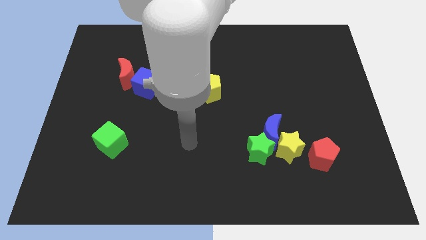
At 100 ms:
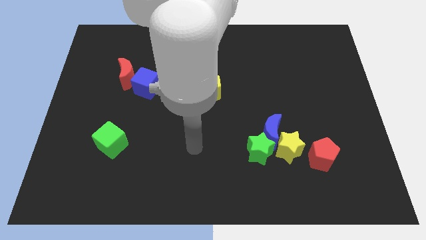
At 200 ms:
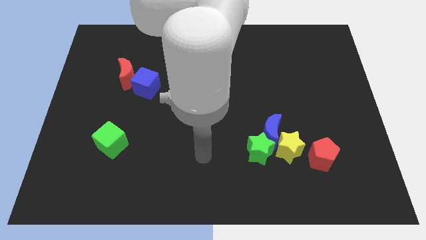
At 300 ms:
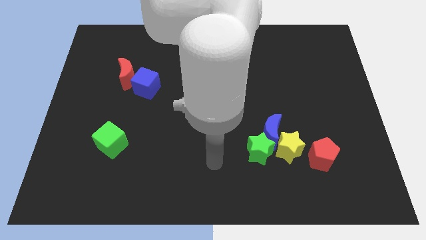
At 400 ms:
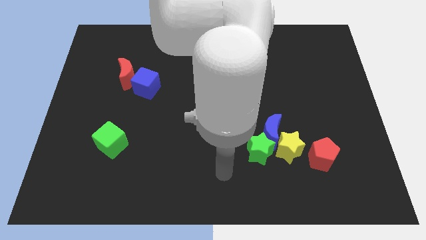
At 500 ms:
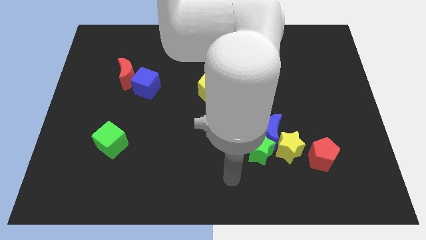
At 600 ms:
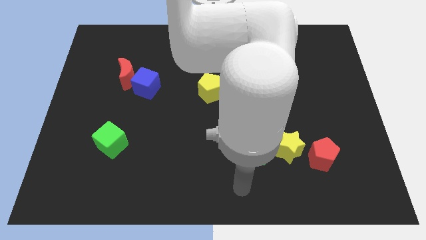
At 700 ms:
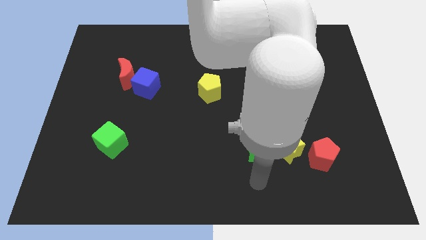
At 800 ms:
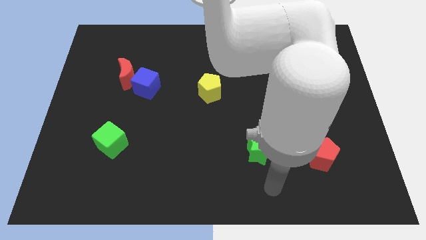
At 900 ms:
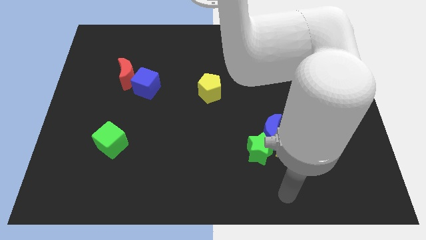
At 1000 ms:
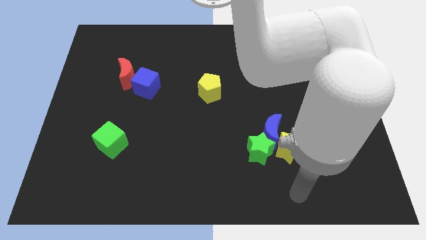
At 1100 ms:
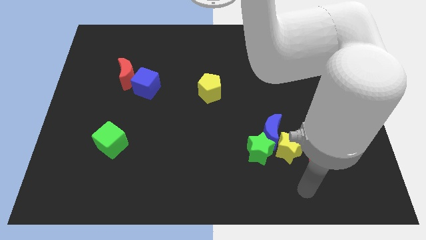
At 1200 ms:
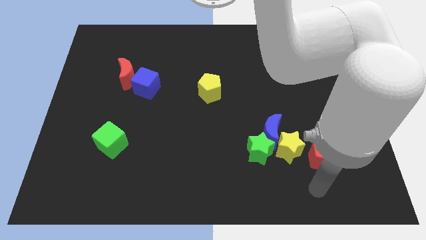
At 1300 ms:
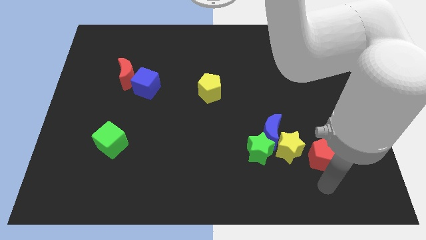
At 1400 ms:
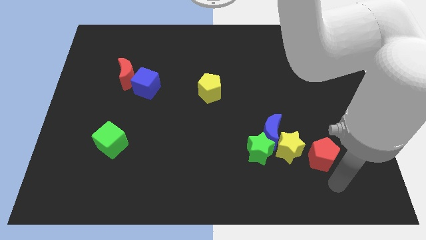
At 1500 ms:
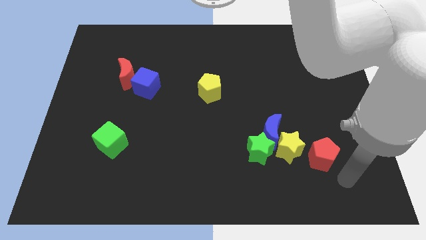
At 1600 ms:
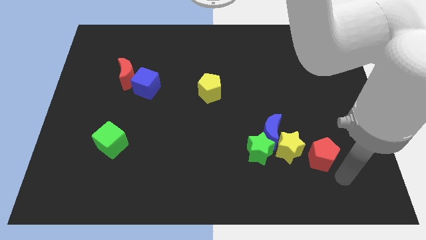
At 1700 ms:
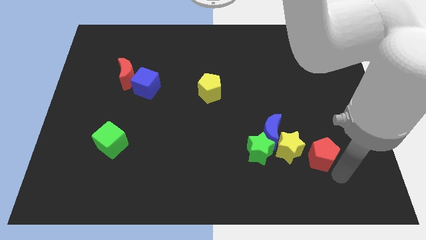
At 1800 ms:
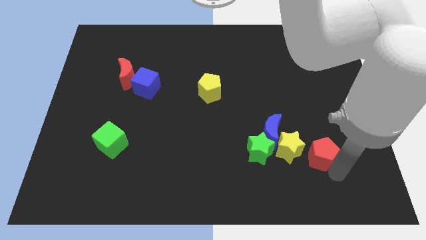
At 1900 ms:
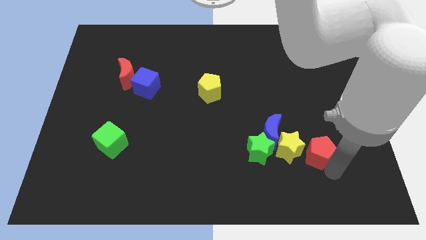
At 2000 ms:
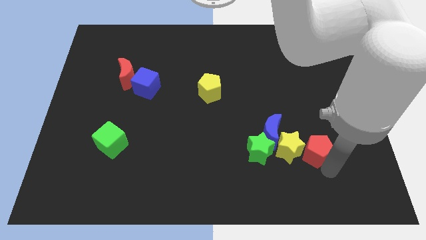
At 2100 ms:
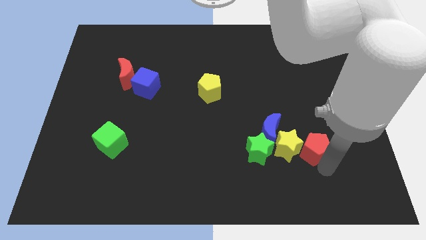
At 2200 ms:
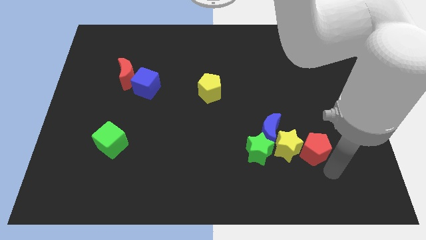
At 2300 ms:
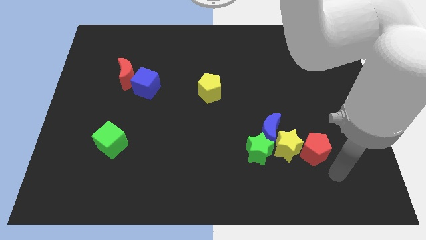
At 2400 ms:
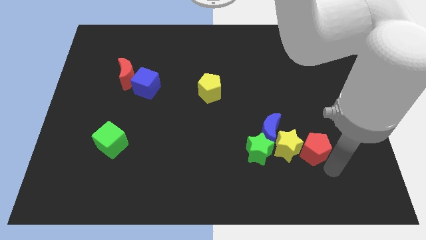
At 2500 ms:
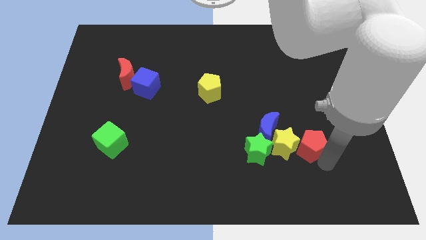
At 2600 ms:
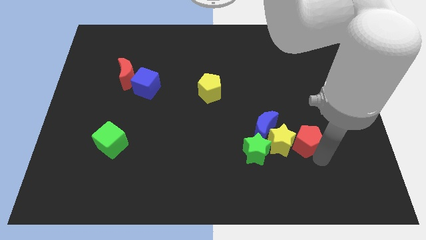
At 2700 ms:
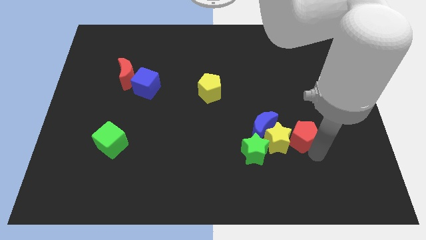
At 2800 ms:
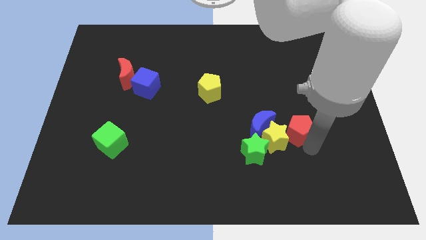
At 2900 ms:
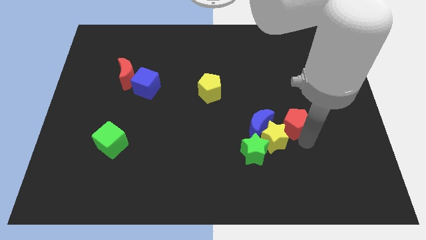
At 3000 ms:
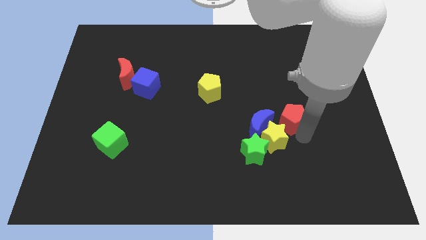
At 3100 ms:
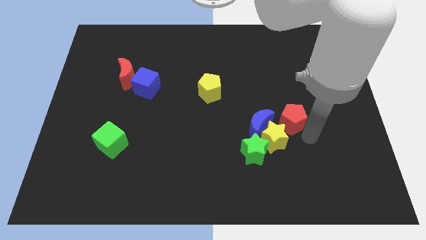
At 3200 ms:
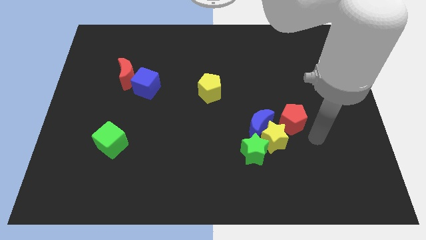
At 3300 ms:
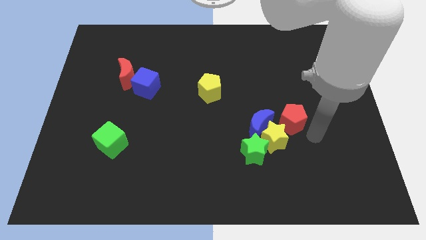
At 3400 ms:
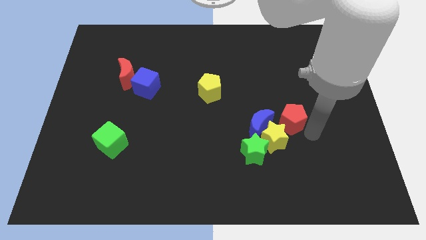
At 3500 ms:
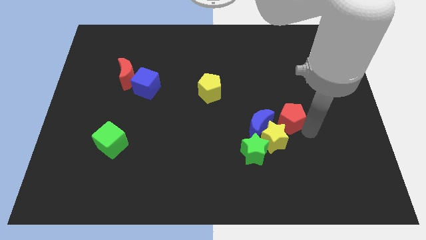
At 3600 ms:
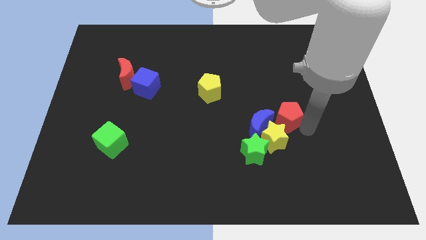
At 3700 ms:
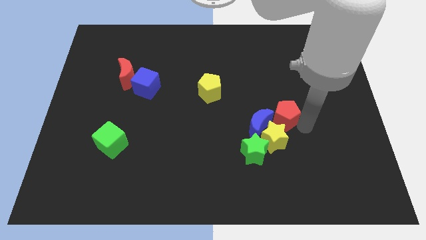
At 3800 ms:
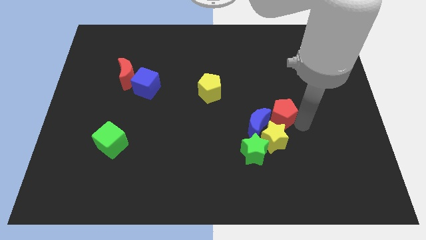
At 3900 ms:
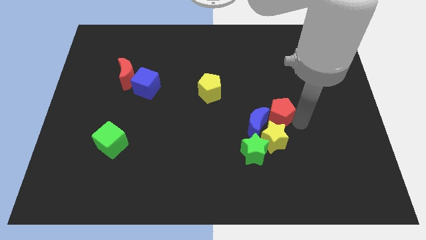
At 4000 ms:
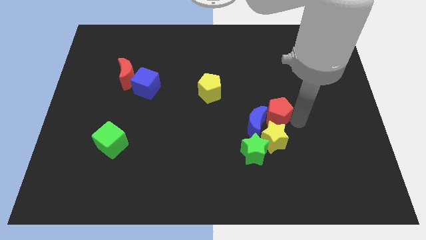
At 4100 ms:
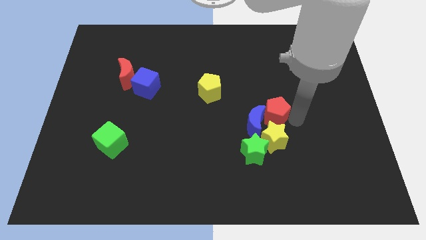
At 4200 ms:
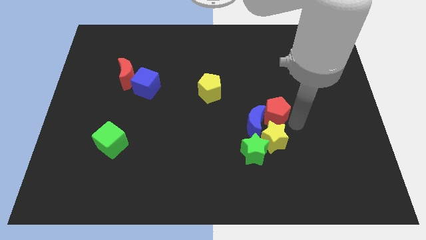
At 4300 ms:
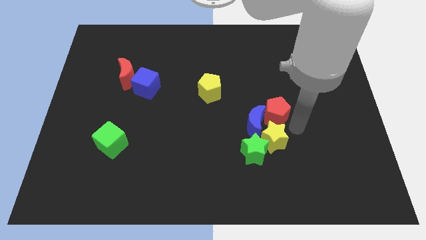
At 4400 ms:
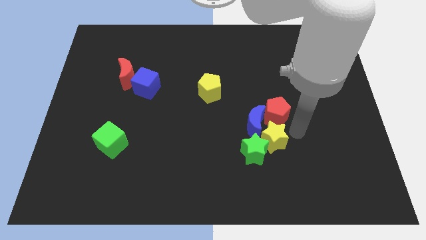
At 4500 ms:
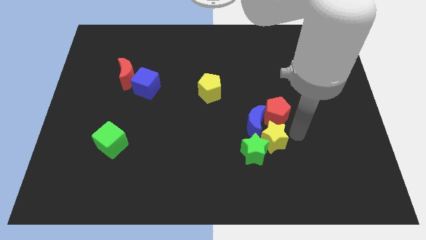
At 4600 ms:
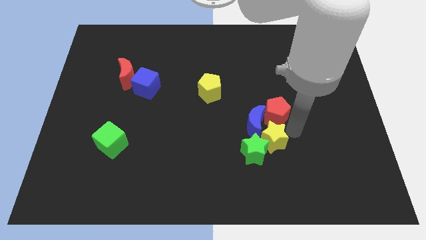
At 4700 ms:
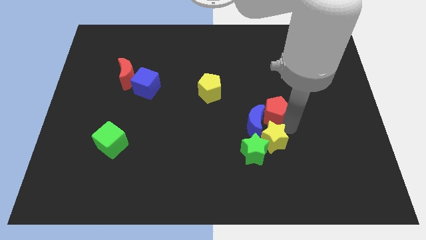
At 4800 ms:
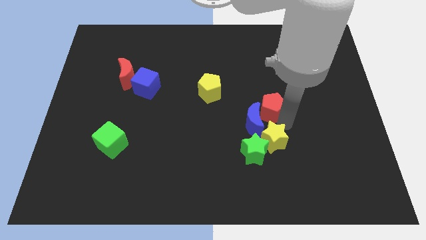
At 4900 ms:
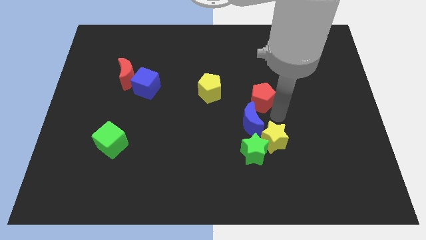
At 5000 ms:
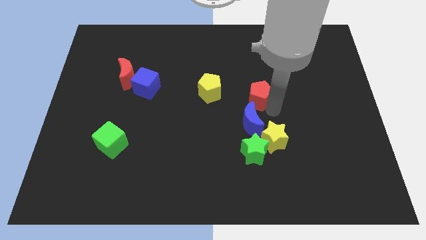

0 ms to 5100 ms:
slide the red pentagon upwards and left diagonally

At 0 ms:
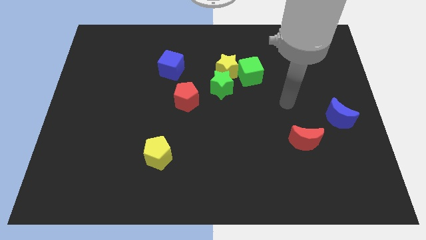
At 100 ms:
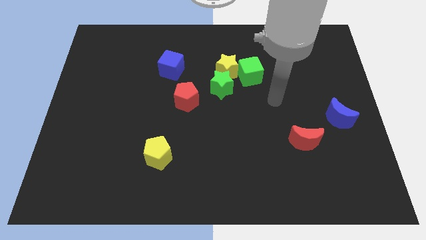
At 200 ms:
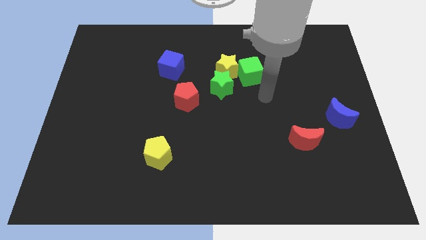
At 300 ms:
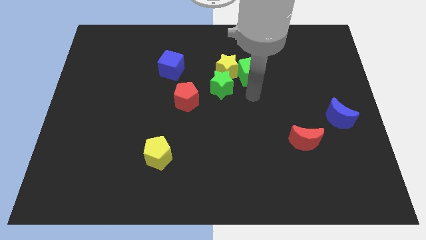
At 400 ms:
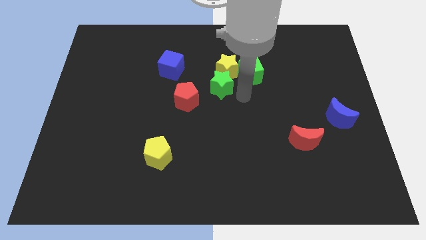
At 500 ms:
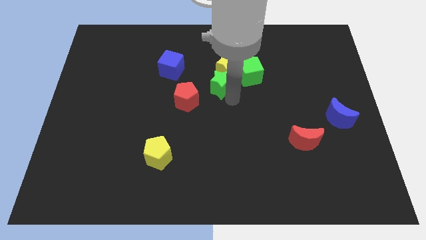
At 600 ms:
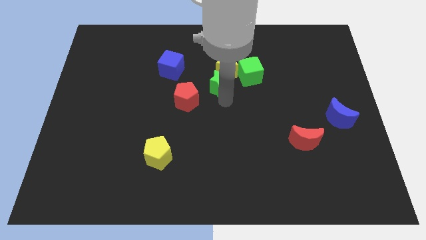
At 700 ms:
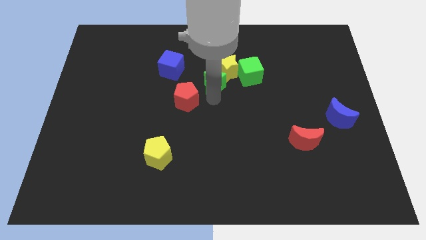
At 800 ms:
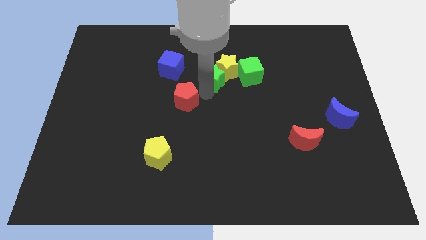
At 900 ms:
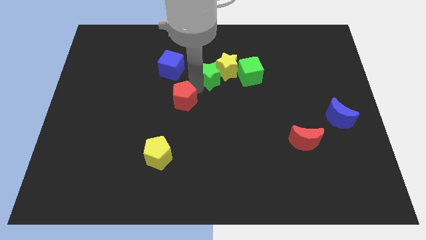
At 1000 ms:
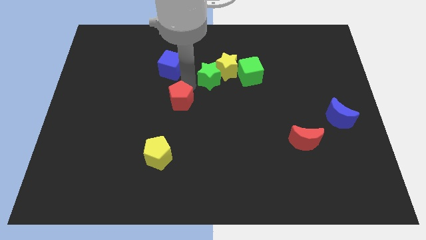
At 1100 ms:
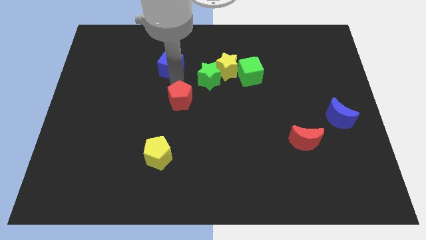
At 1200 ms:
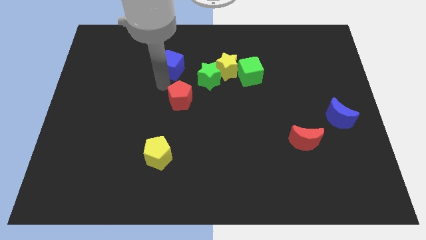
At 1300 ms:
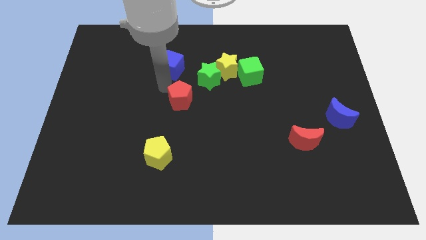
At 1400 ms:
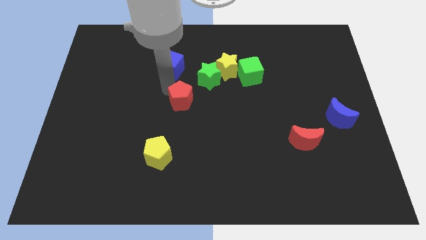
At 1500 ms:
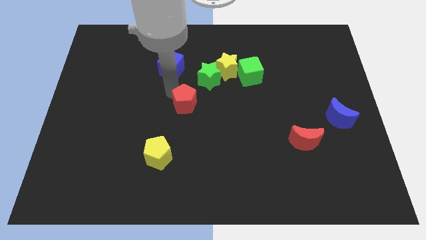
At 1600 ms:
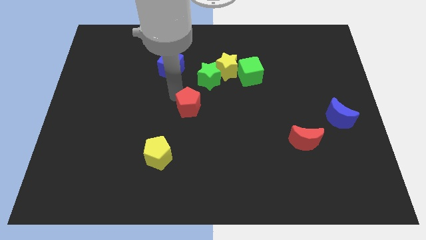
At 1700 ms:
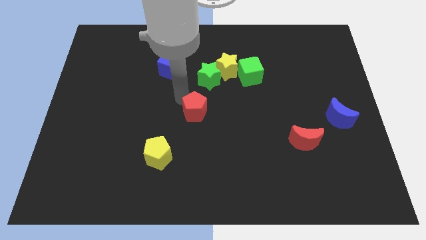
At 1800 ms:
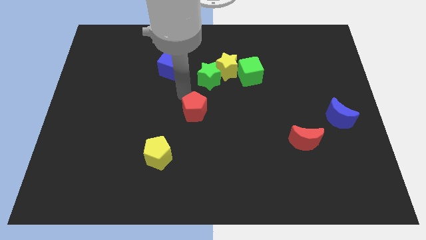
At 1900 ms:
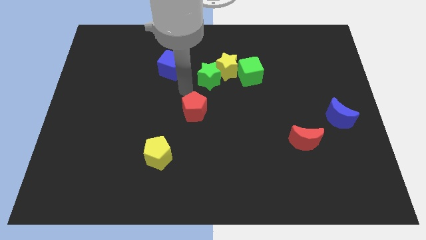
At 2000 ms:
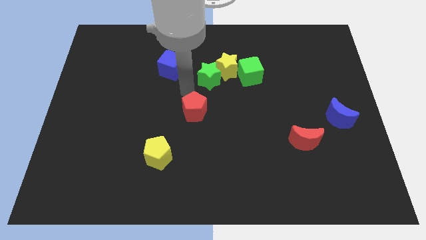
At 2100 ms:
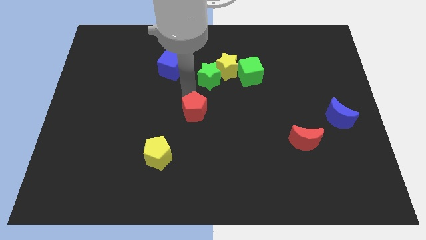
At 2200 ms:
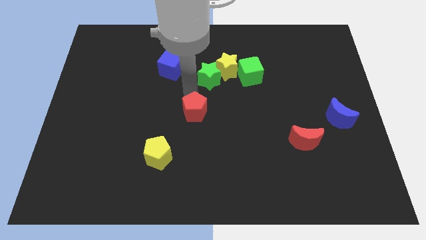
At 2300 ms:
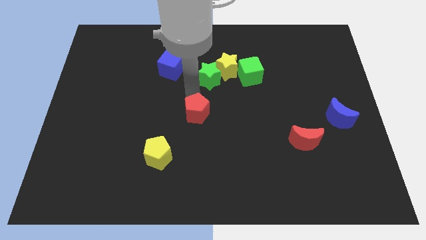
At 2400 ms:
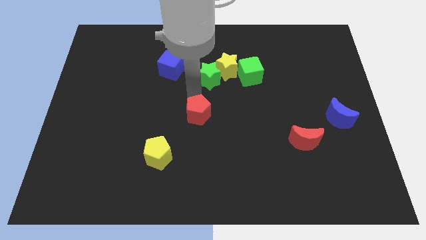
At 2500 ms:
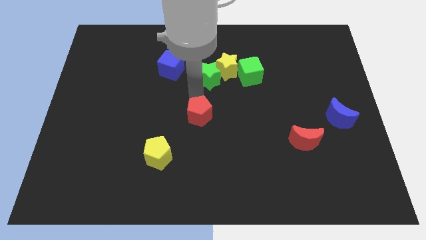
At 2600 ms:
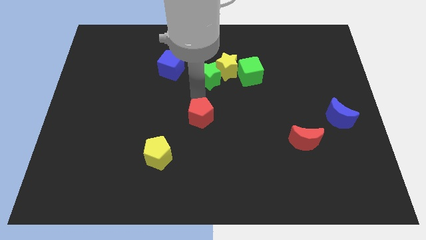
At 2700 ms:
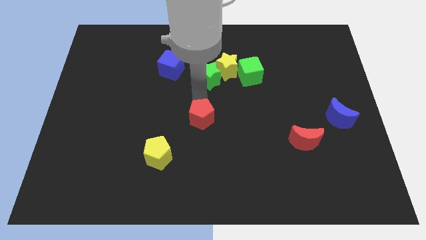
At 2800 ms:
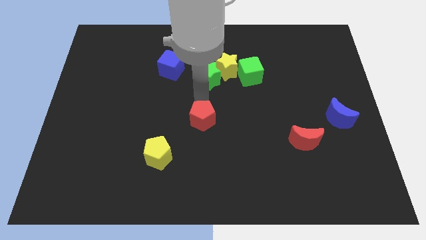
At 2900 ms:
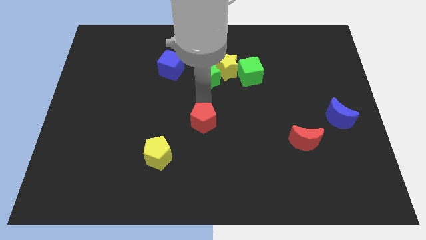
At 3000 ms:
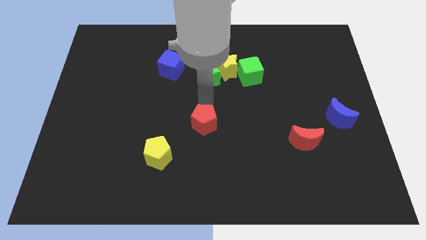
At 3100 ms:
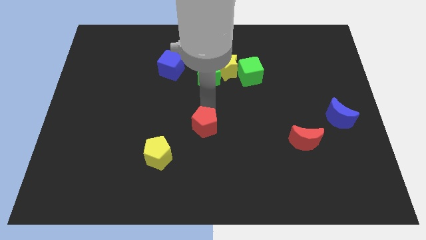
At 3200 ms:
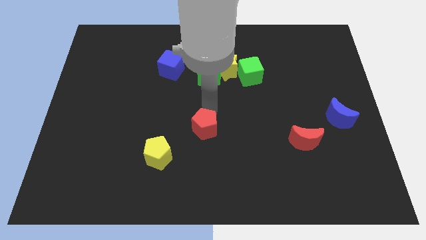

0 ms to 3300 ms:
move the red pentagon a little downwards

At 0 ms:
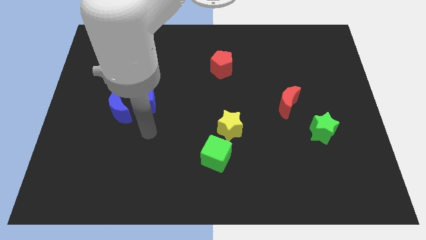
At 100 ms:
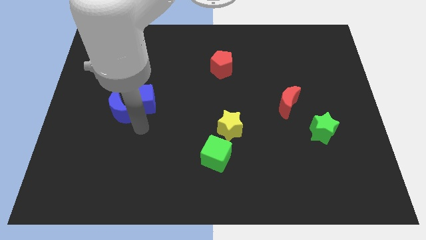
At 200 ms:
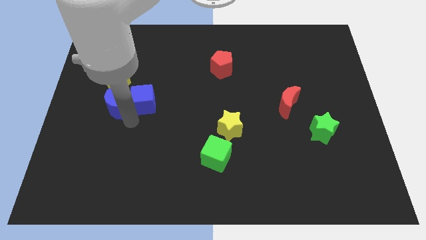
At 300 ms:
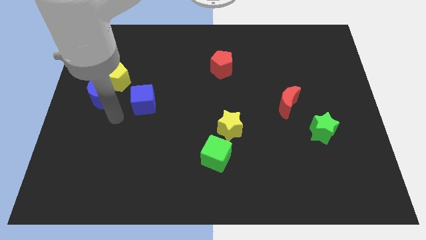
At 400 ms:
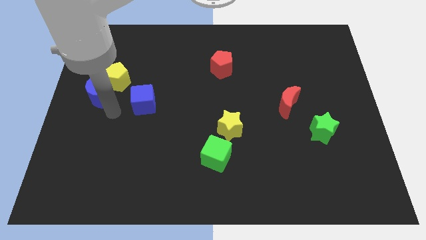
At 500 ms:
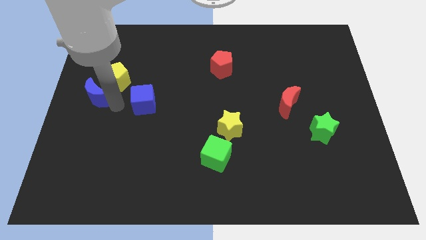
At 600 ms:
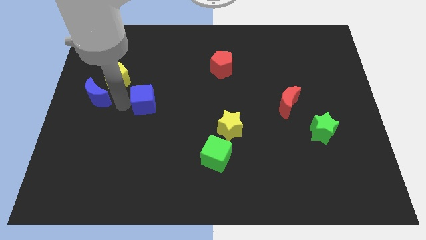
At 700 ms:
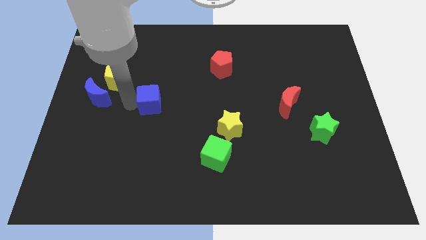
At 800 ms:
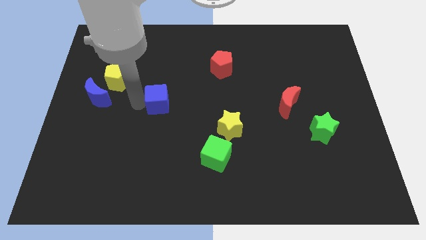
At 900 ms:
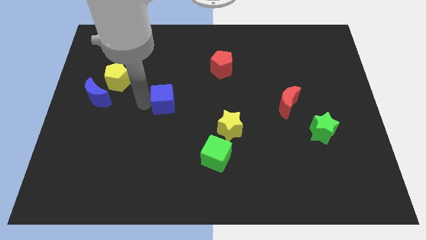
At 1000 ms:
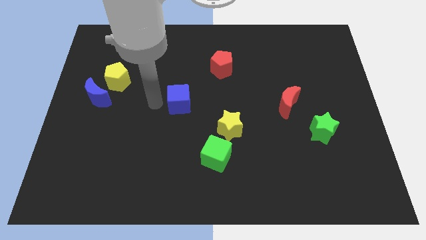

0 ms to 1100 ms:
slightly slide the blue cube to the right
